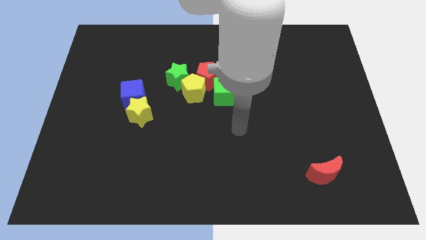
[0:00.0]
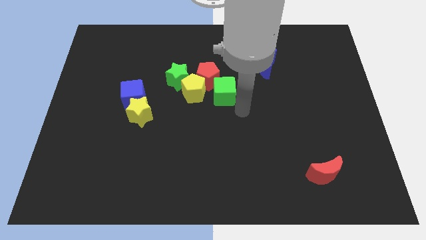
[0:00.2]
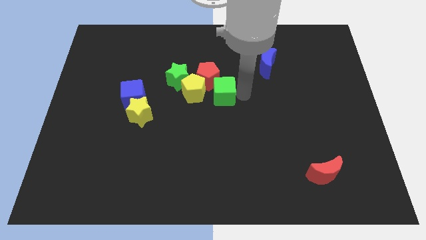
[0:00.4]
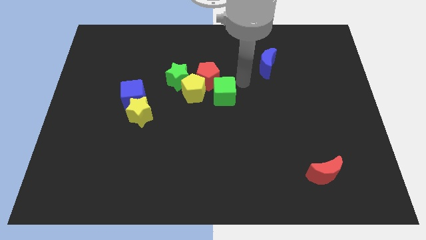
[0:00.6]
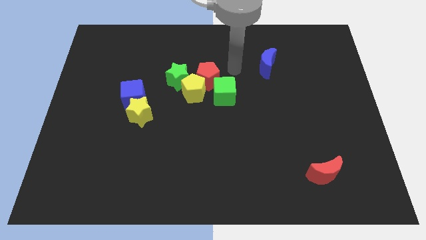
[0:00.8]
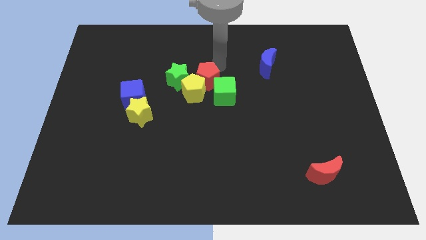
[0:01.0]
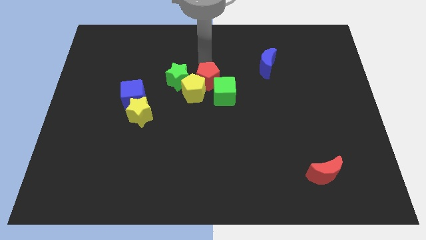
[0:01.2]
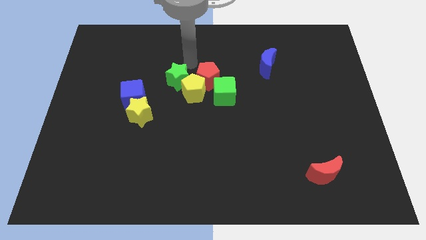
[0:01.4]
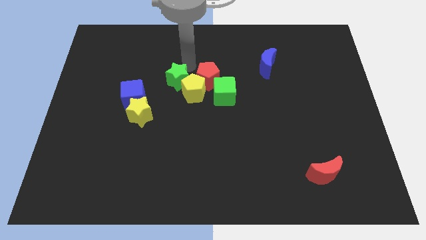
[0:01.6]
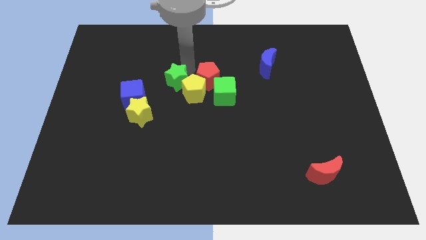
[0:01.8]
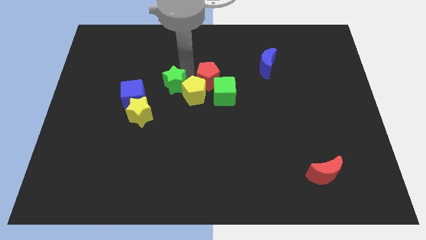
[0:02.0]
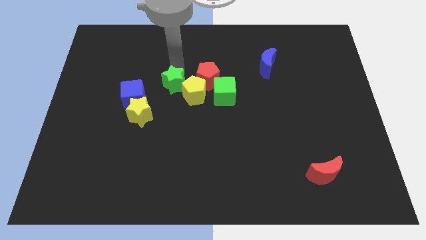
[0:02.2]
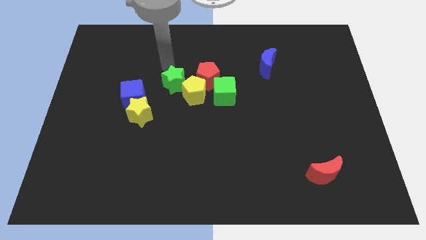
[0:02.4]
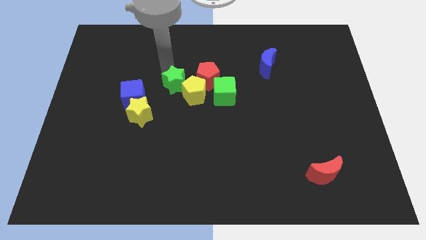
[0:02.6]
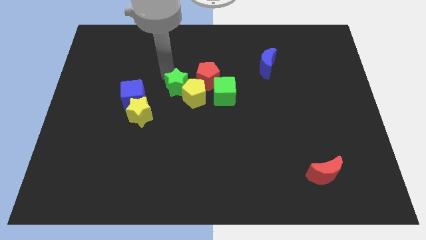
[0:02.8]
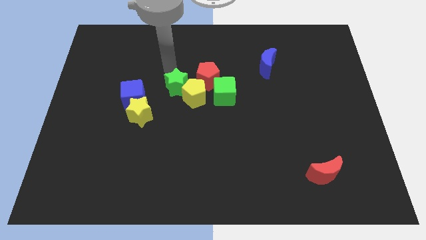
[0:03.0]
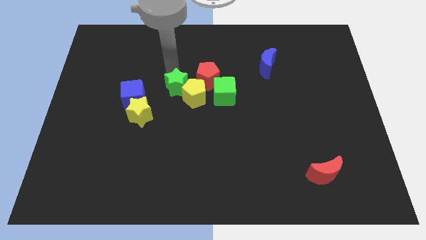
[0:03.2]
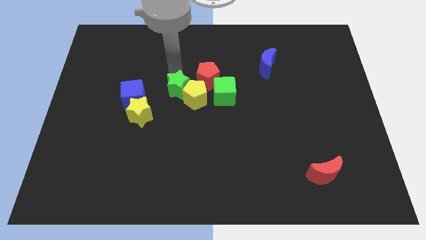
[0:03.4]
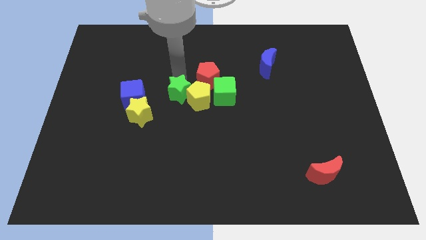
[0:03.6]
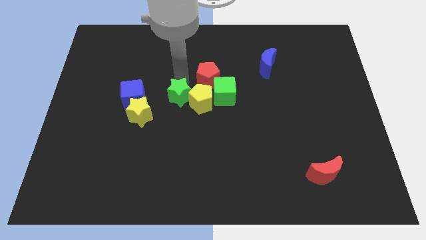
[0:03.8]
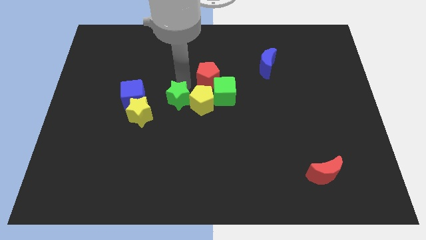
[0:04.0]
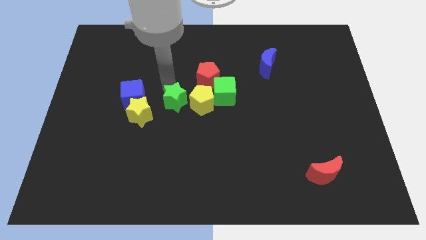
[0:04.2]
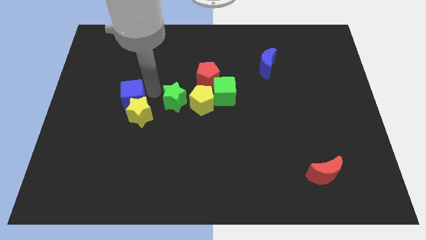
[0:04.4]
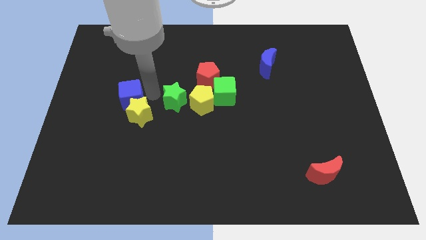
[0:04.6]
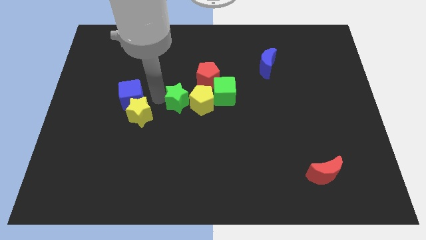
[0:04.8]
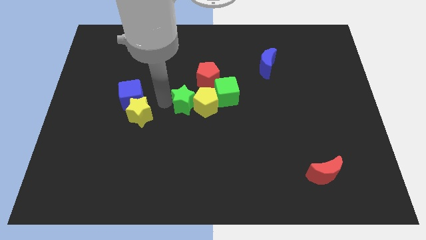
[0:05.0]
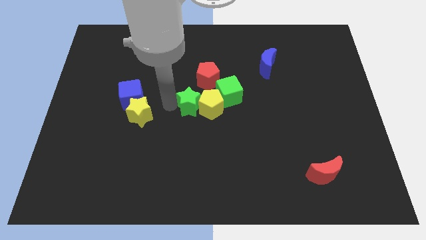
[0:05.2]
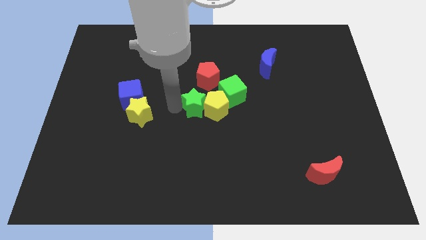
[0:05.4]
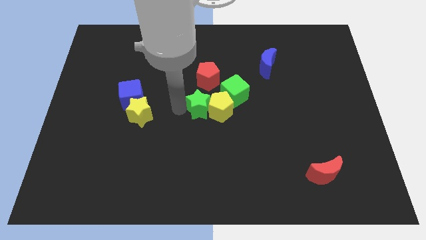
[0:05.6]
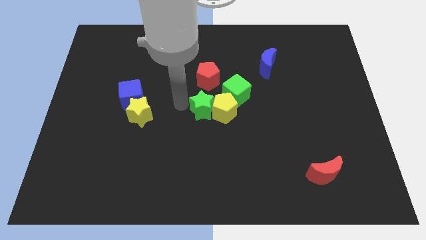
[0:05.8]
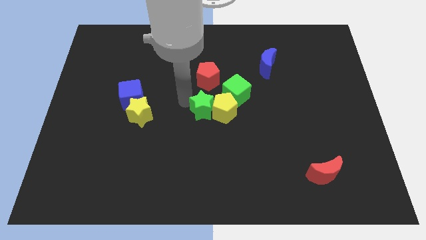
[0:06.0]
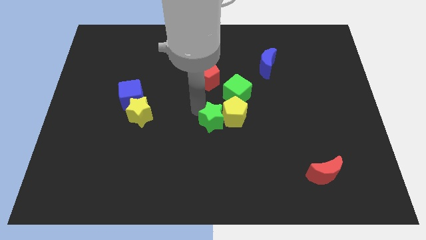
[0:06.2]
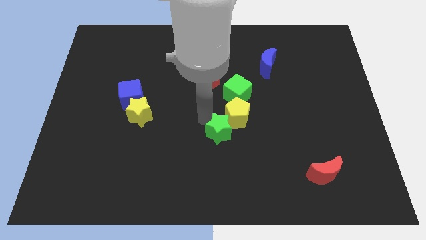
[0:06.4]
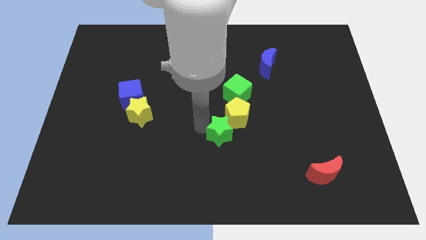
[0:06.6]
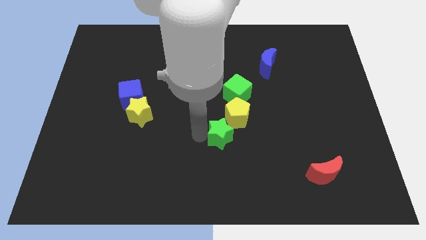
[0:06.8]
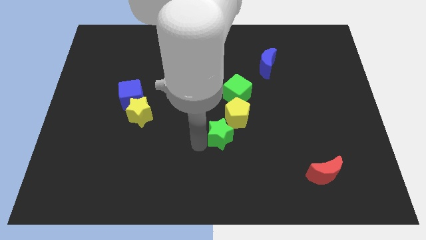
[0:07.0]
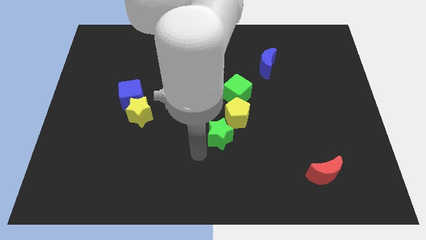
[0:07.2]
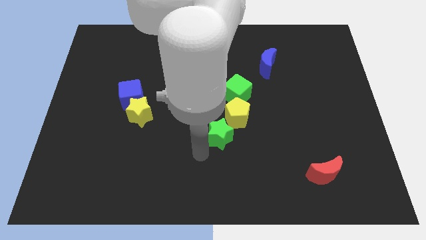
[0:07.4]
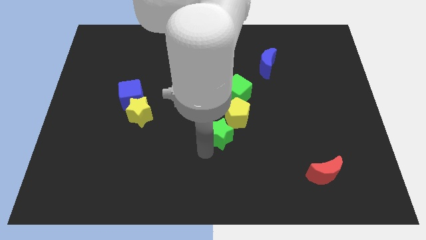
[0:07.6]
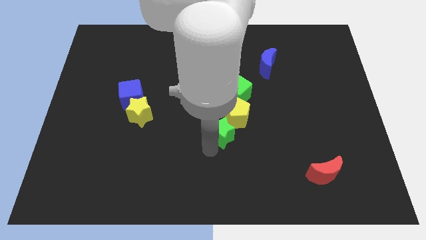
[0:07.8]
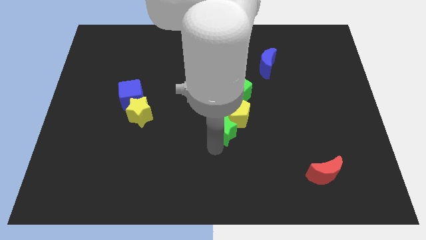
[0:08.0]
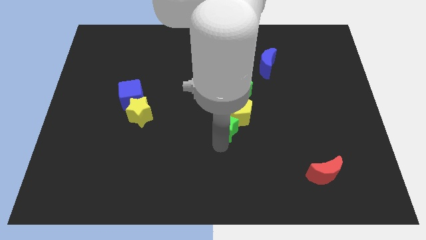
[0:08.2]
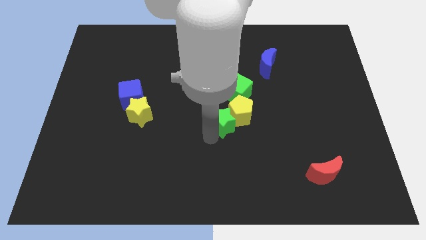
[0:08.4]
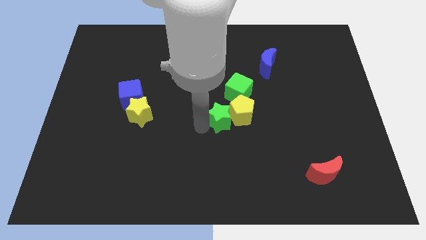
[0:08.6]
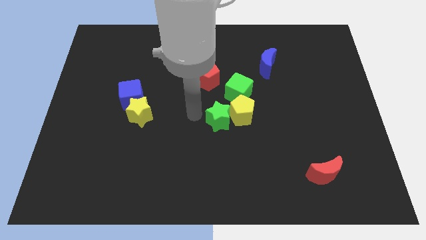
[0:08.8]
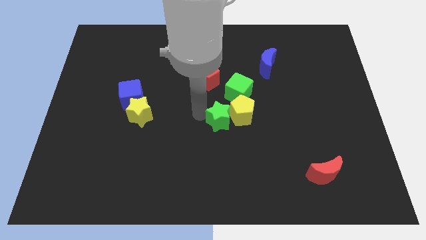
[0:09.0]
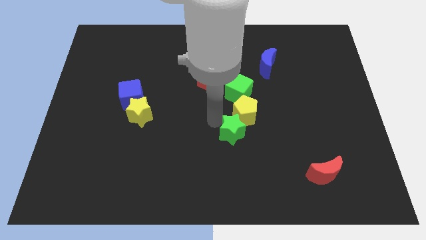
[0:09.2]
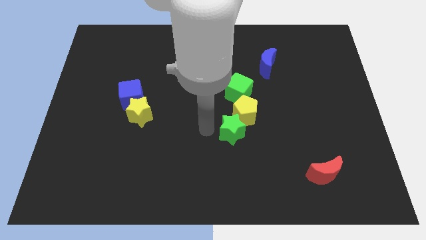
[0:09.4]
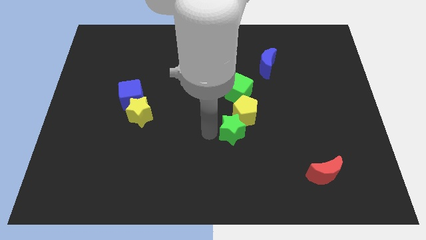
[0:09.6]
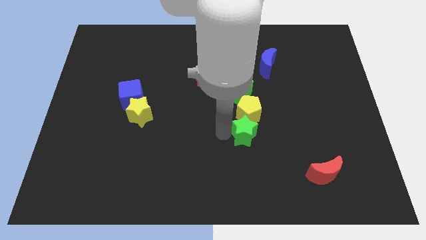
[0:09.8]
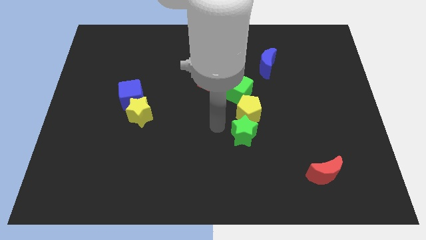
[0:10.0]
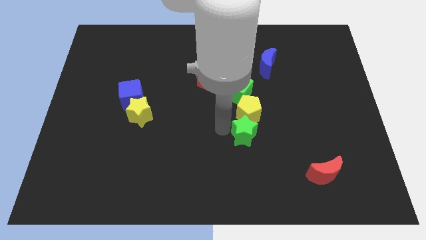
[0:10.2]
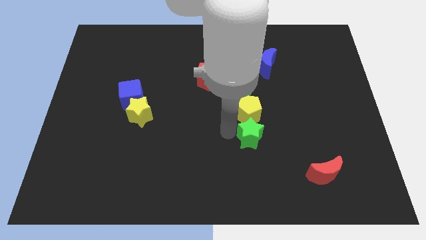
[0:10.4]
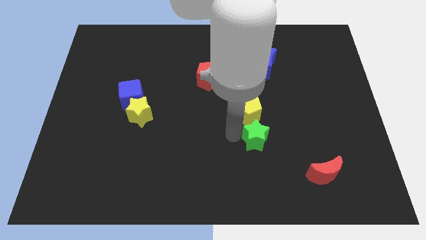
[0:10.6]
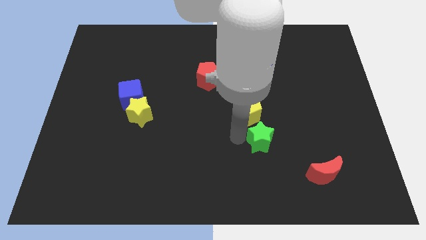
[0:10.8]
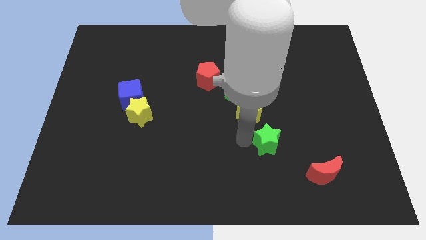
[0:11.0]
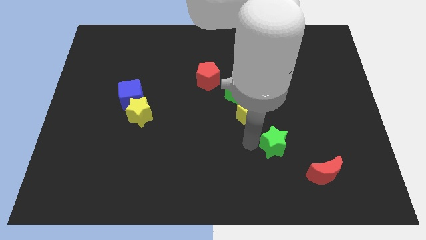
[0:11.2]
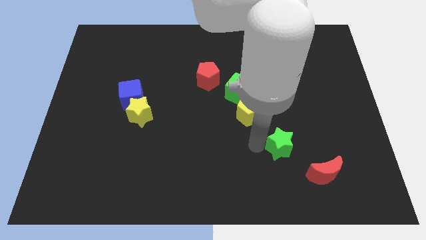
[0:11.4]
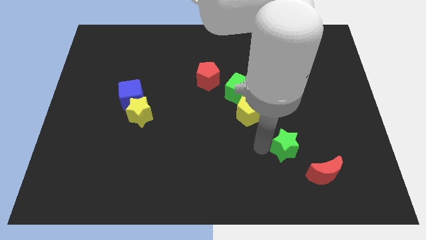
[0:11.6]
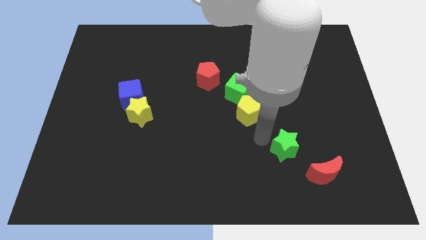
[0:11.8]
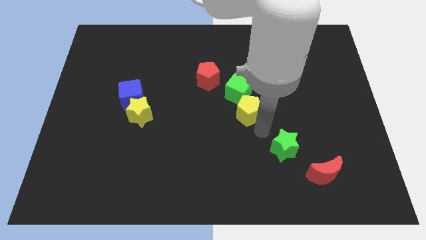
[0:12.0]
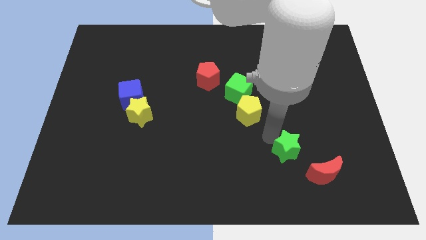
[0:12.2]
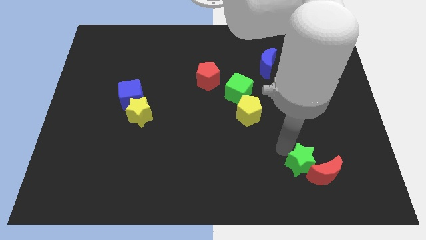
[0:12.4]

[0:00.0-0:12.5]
push the green star close to the red moon

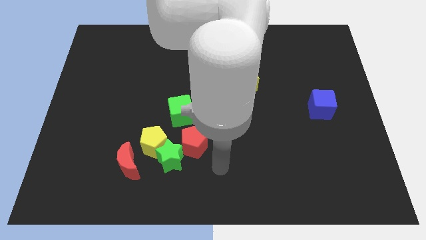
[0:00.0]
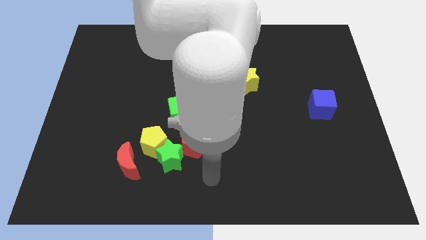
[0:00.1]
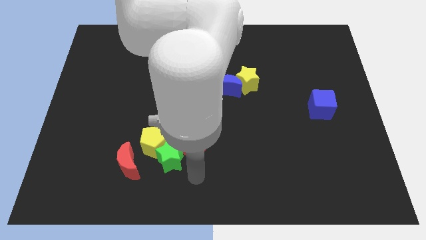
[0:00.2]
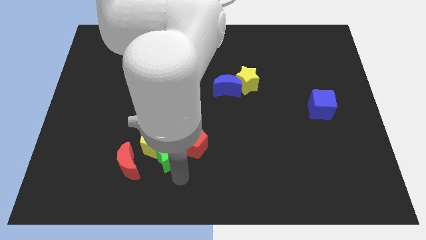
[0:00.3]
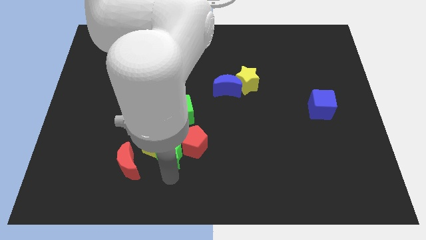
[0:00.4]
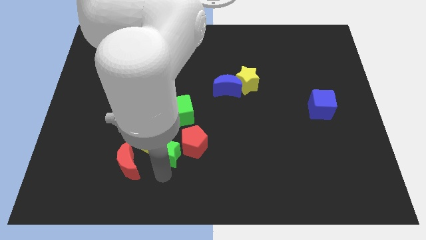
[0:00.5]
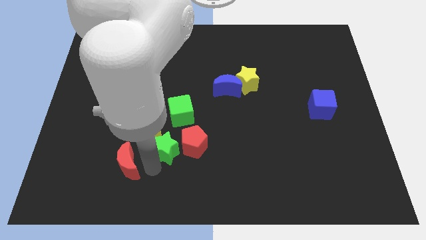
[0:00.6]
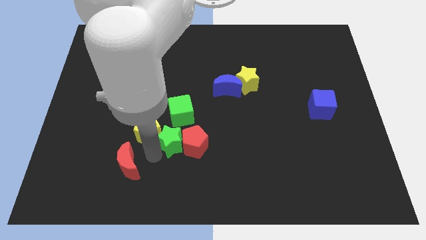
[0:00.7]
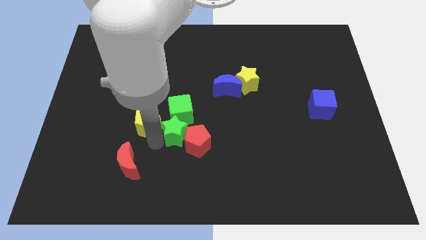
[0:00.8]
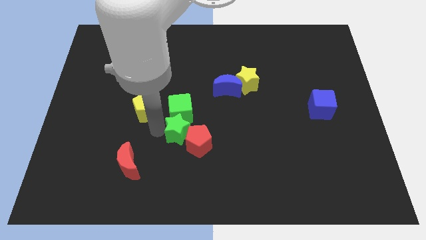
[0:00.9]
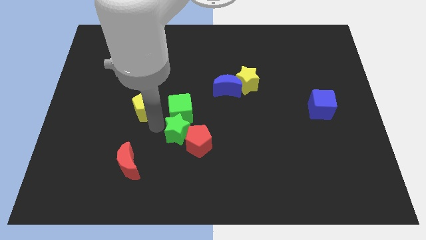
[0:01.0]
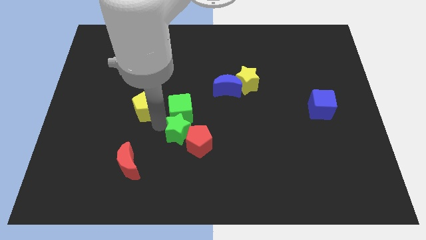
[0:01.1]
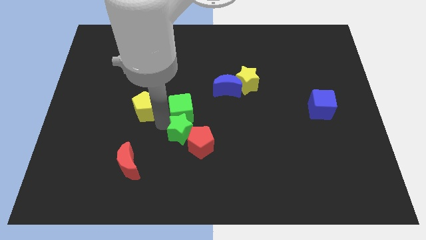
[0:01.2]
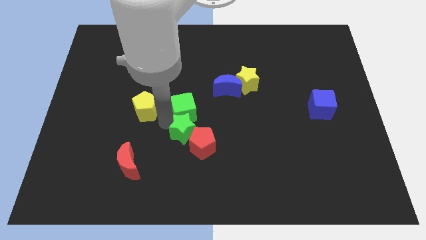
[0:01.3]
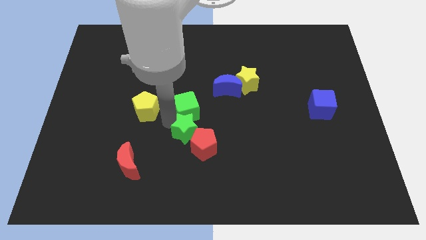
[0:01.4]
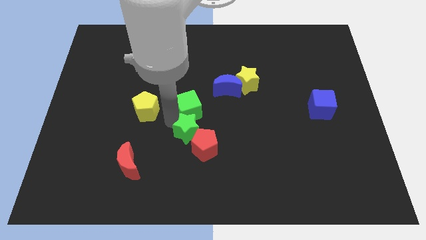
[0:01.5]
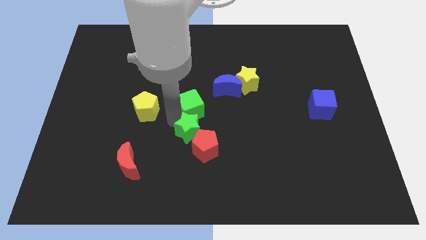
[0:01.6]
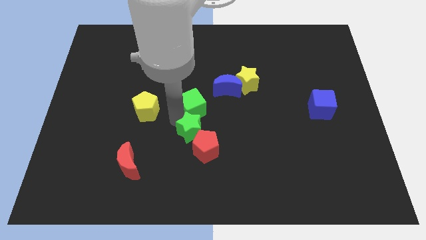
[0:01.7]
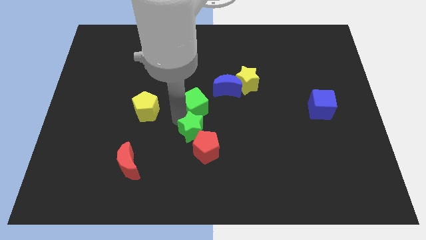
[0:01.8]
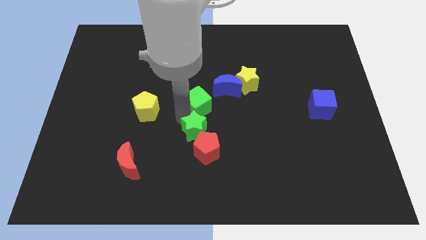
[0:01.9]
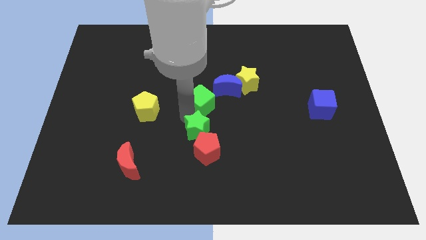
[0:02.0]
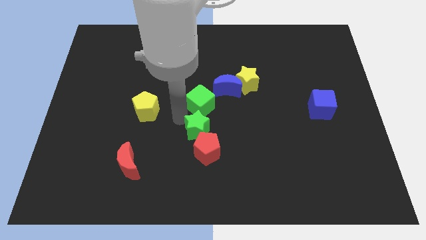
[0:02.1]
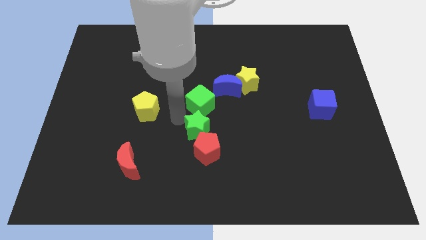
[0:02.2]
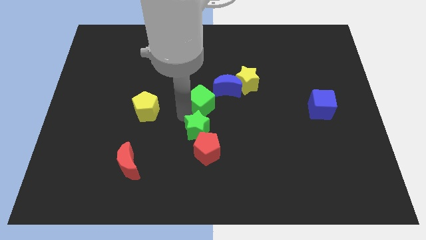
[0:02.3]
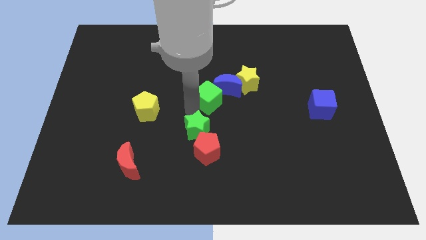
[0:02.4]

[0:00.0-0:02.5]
move the green cube to the blue moon
